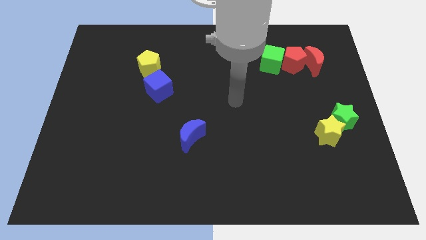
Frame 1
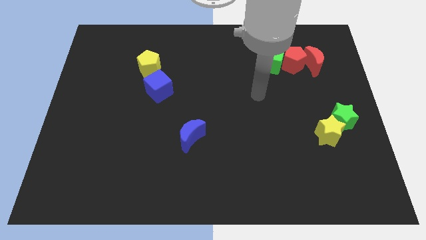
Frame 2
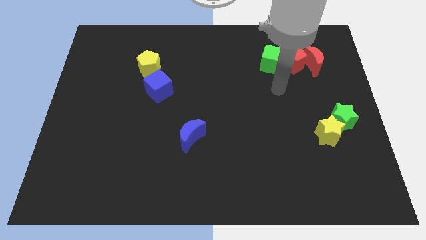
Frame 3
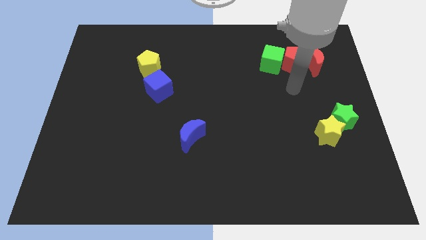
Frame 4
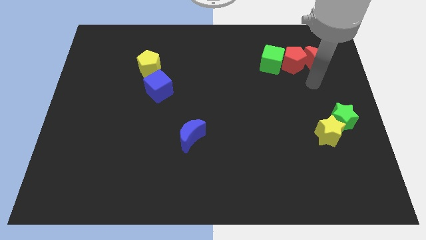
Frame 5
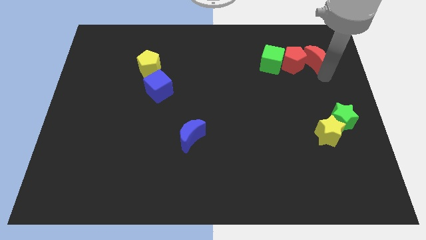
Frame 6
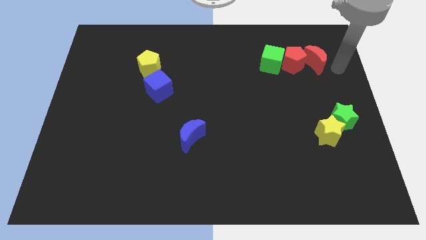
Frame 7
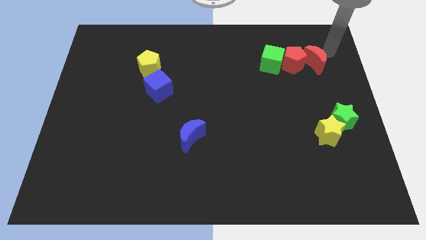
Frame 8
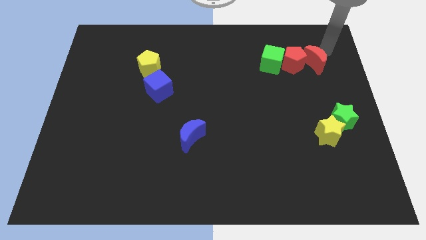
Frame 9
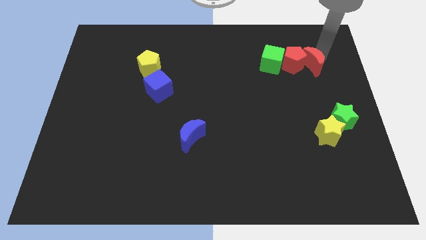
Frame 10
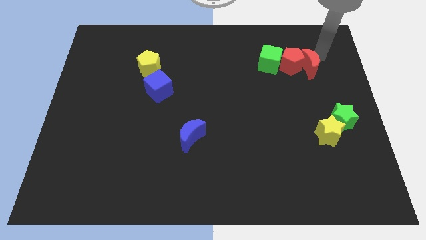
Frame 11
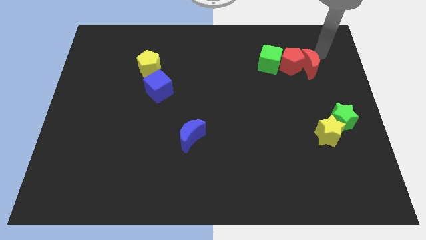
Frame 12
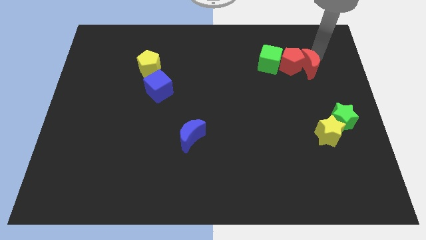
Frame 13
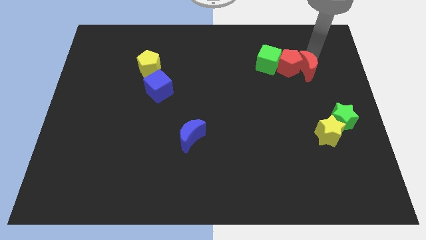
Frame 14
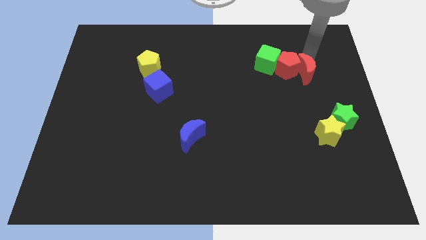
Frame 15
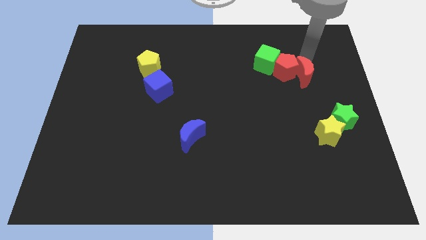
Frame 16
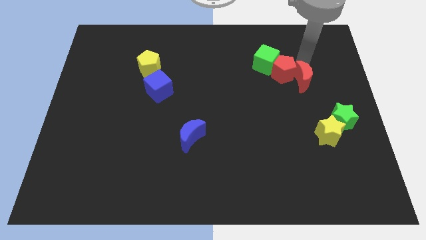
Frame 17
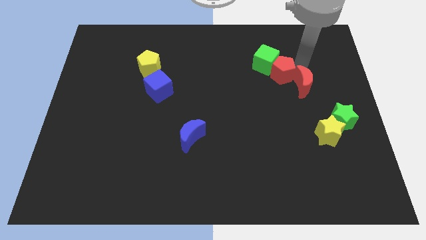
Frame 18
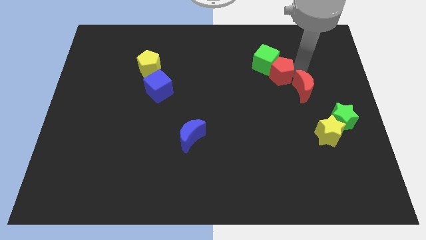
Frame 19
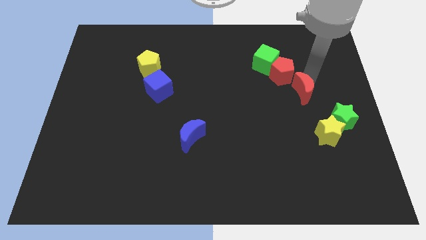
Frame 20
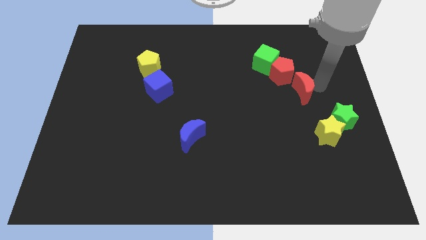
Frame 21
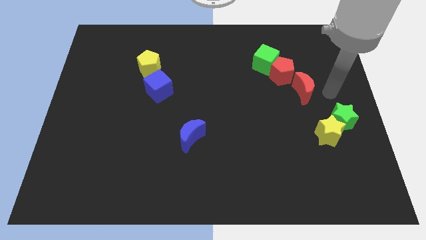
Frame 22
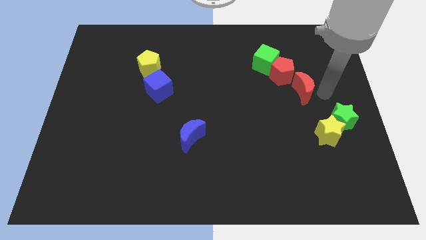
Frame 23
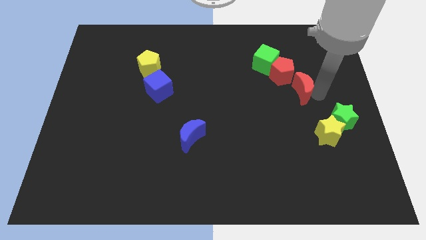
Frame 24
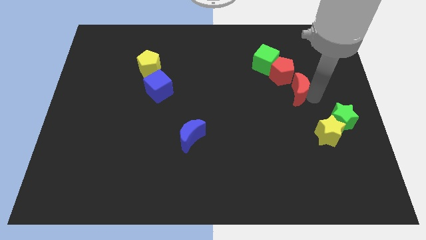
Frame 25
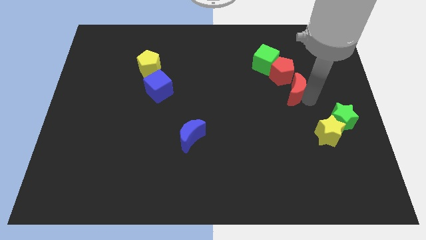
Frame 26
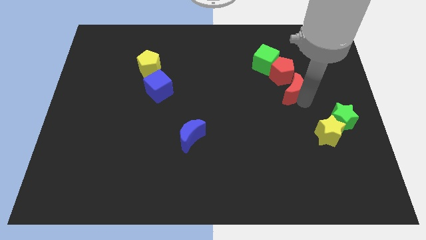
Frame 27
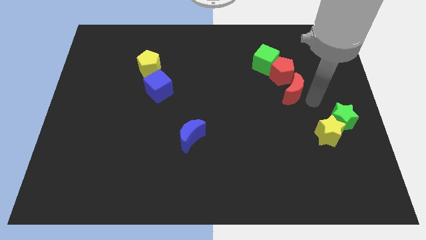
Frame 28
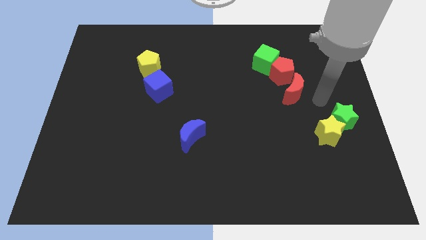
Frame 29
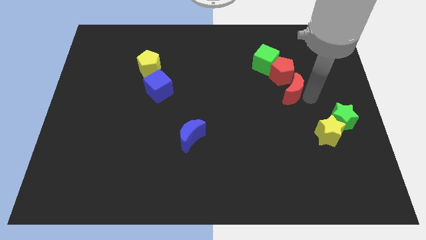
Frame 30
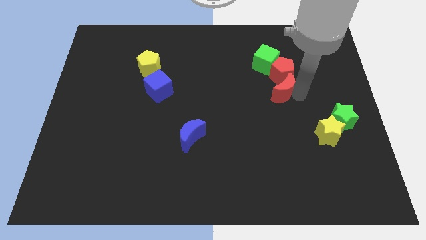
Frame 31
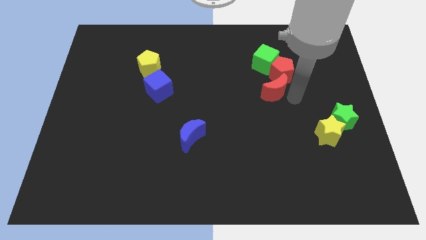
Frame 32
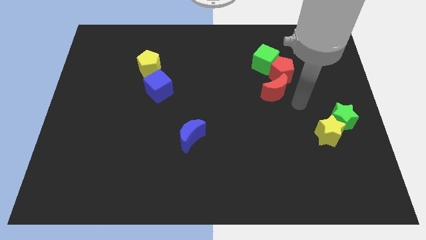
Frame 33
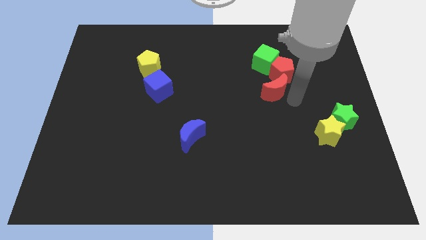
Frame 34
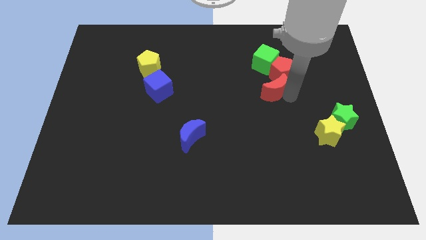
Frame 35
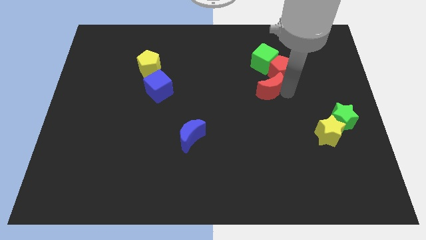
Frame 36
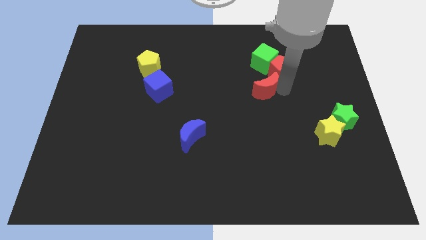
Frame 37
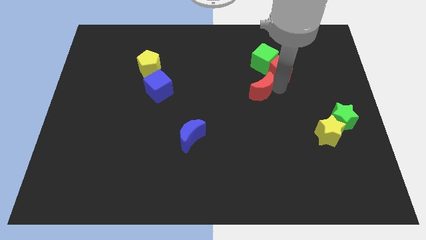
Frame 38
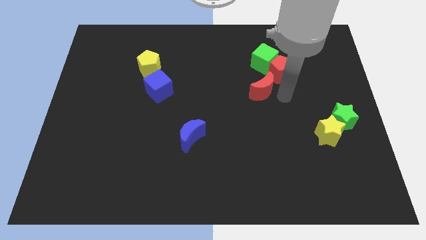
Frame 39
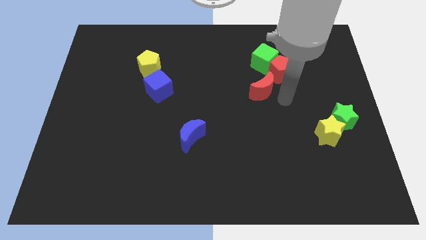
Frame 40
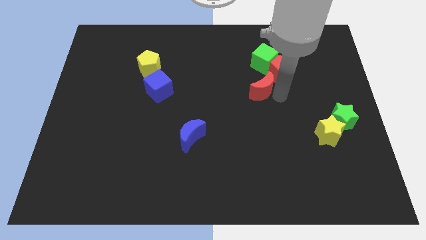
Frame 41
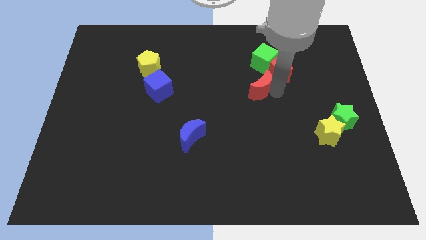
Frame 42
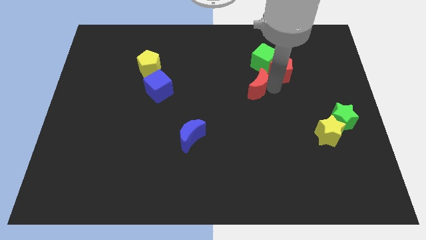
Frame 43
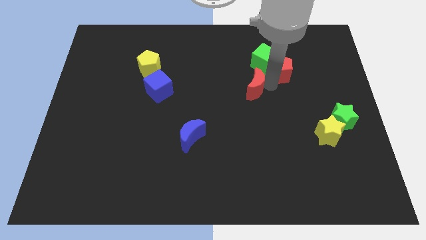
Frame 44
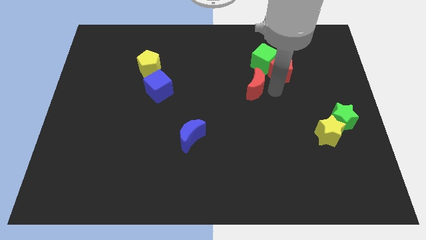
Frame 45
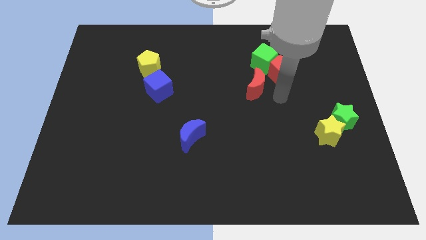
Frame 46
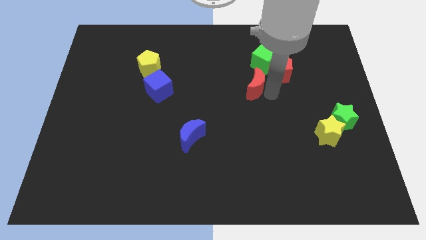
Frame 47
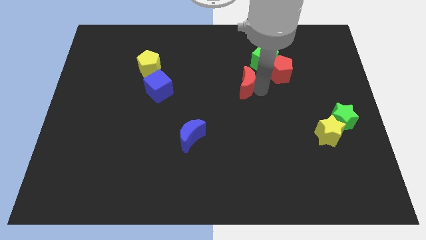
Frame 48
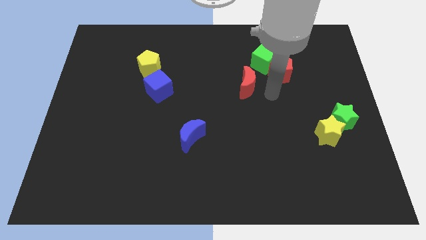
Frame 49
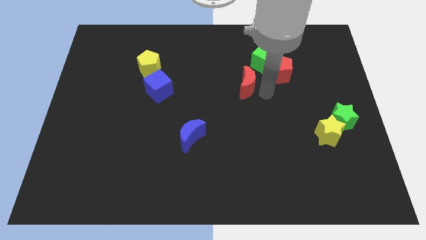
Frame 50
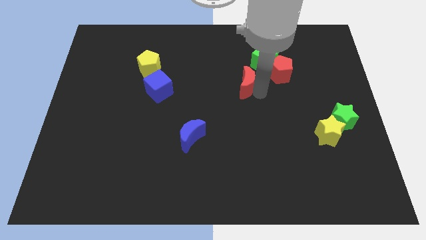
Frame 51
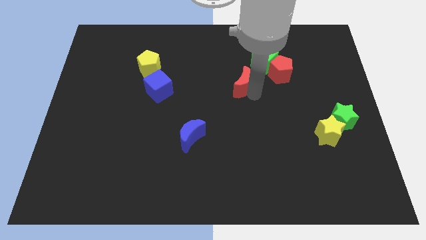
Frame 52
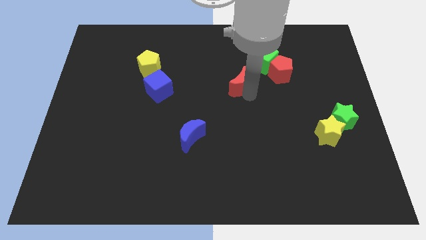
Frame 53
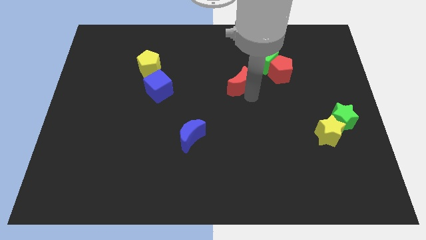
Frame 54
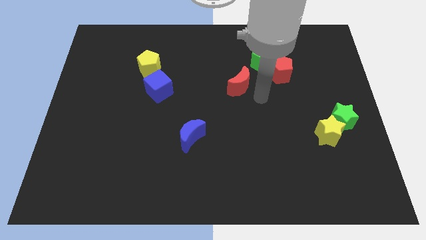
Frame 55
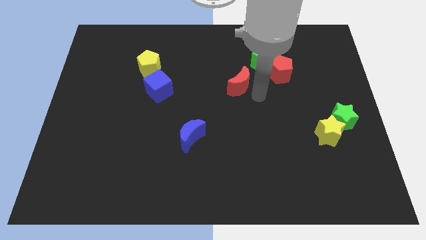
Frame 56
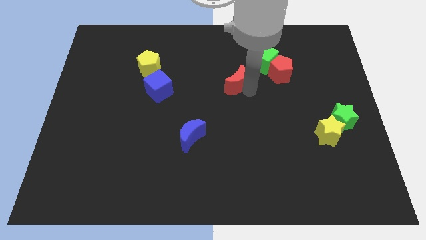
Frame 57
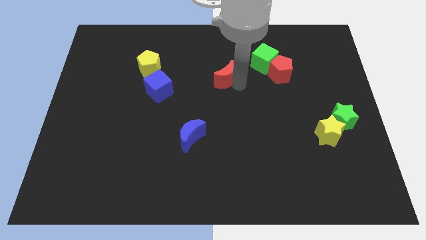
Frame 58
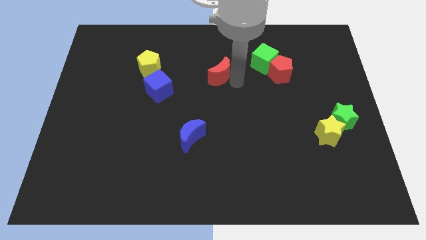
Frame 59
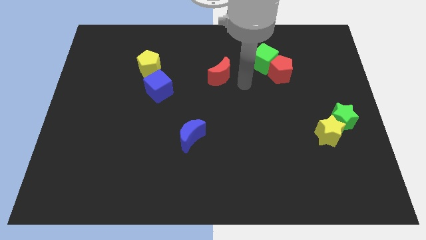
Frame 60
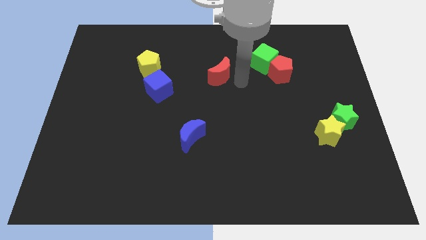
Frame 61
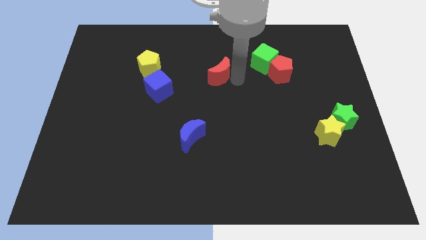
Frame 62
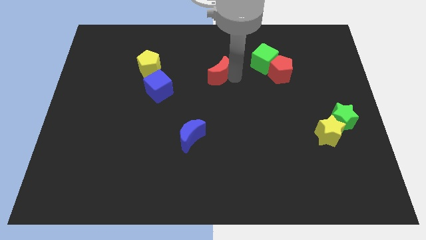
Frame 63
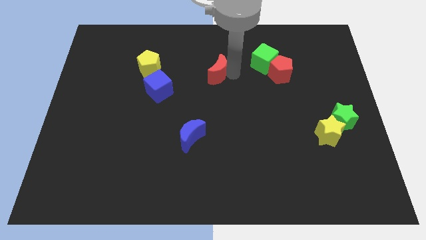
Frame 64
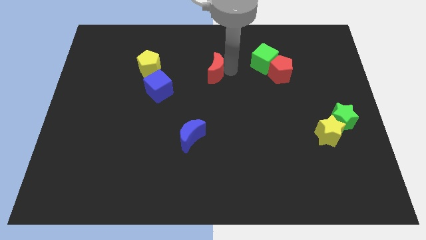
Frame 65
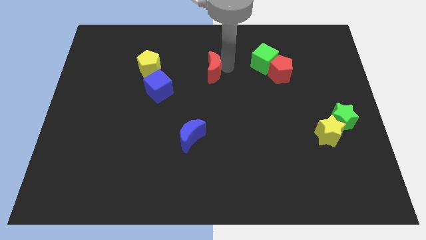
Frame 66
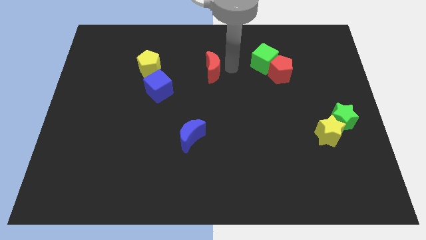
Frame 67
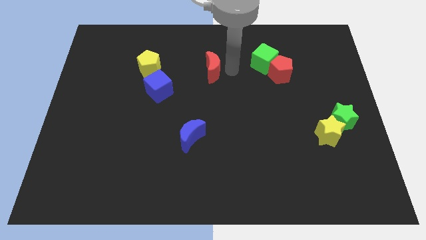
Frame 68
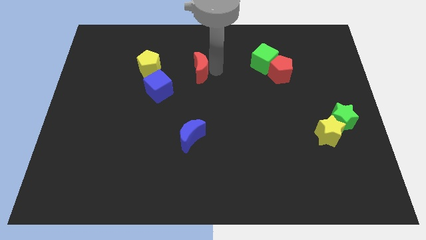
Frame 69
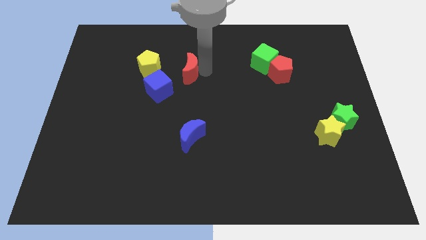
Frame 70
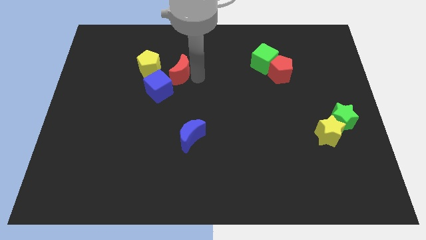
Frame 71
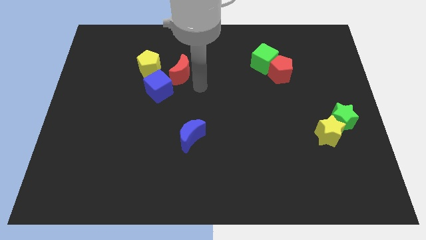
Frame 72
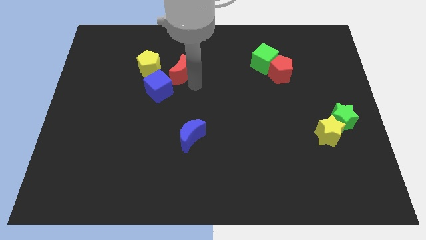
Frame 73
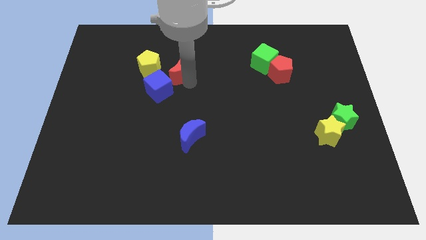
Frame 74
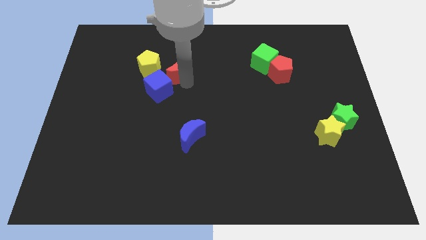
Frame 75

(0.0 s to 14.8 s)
push the red moon to the top side of the blue cube
